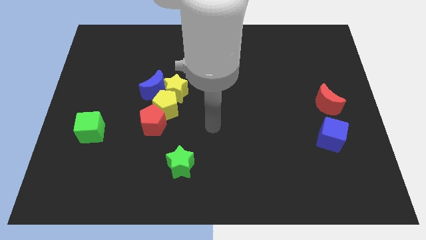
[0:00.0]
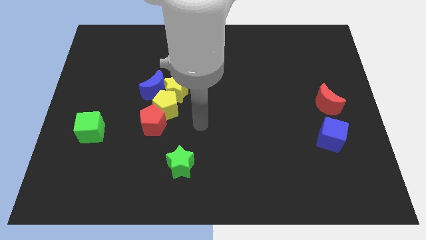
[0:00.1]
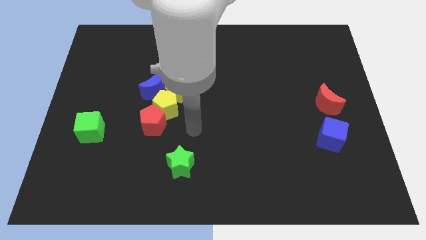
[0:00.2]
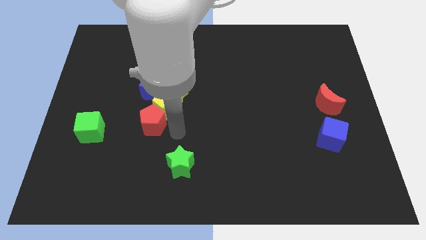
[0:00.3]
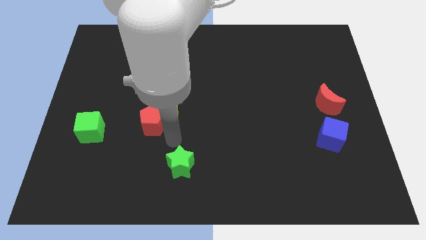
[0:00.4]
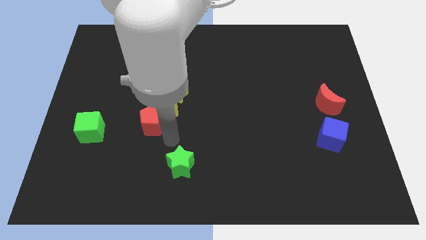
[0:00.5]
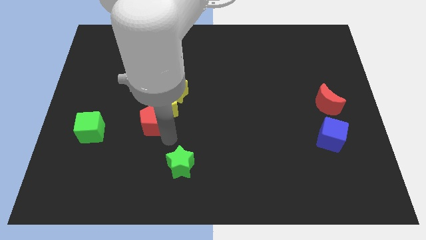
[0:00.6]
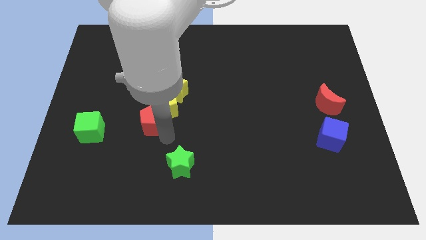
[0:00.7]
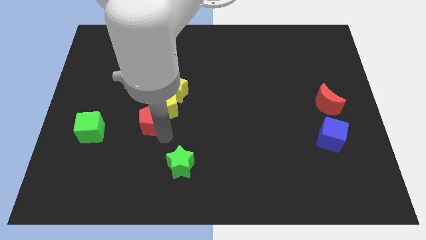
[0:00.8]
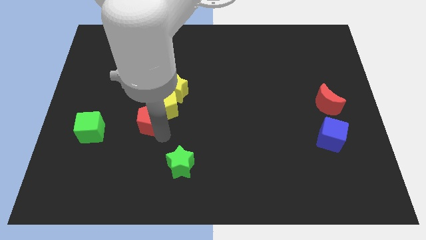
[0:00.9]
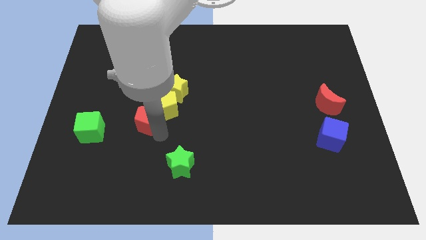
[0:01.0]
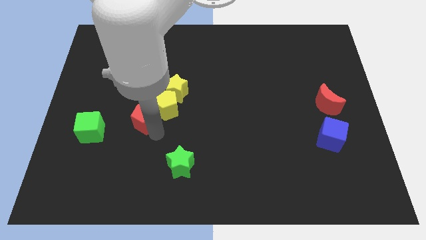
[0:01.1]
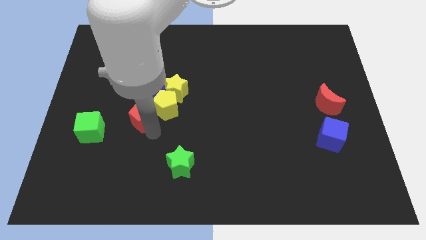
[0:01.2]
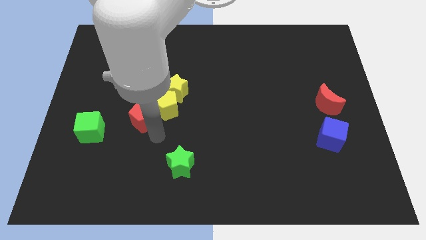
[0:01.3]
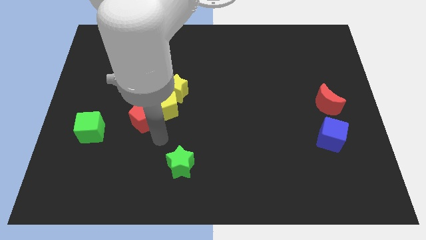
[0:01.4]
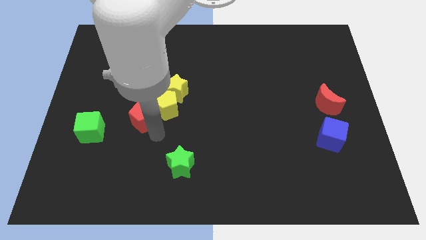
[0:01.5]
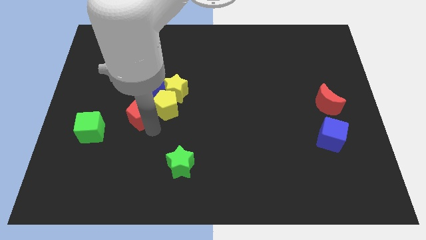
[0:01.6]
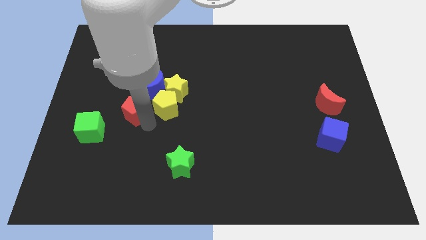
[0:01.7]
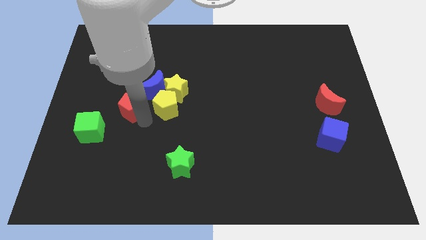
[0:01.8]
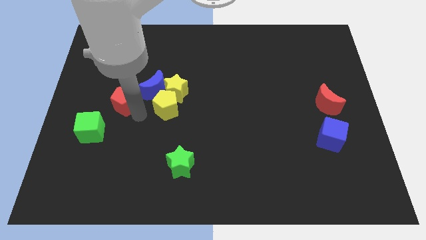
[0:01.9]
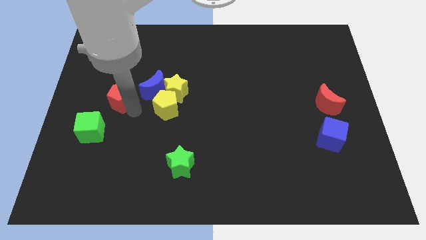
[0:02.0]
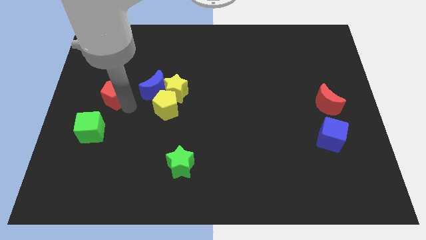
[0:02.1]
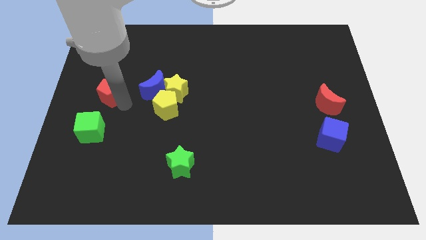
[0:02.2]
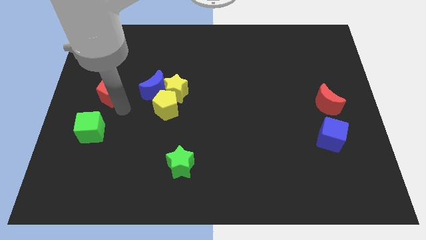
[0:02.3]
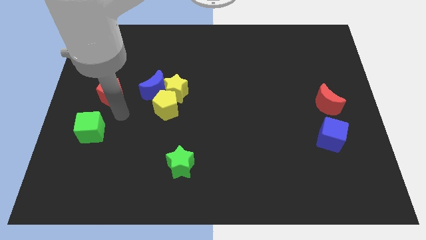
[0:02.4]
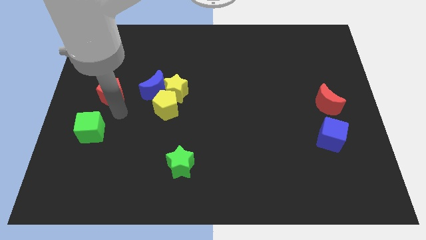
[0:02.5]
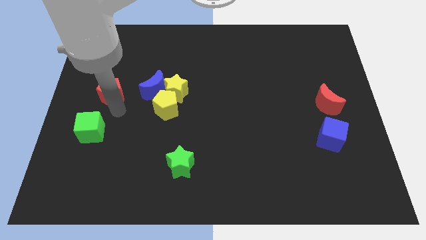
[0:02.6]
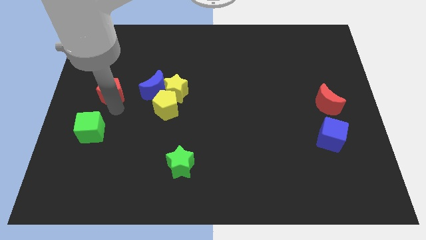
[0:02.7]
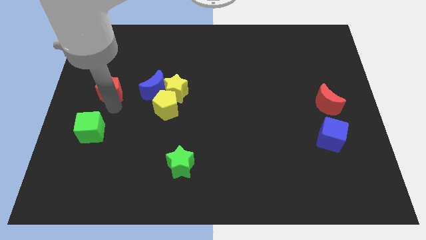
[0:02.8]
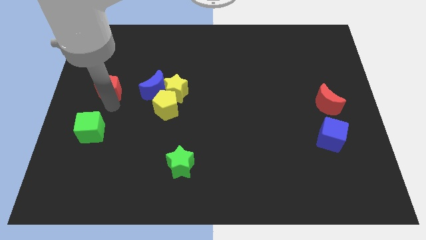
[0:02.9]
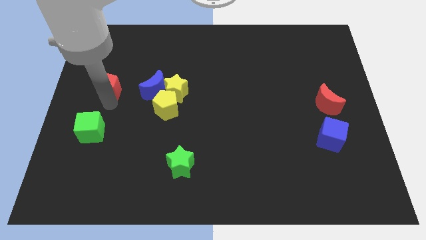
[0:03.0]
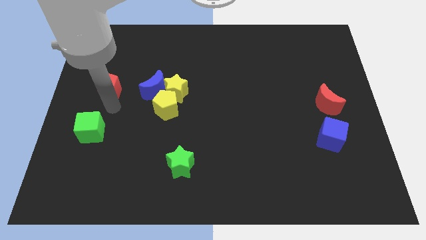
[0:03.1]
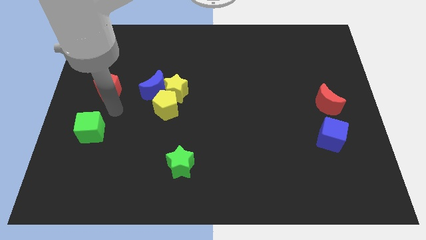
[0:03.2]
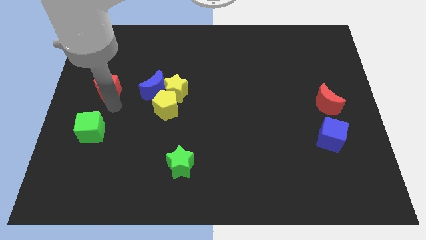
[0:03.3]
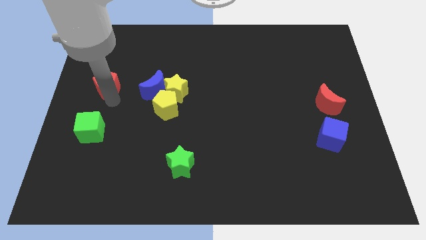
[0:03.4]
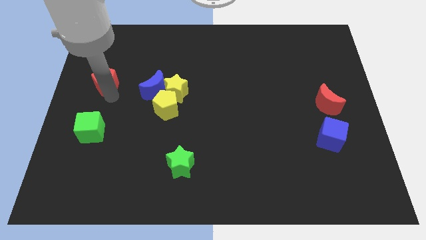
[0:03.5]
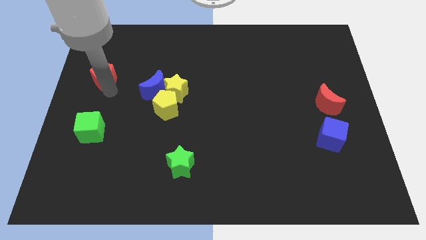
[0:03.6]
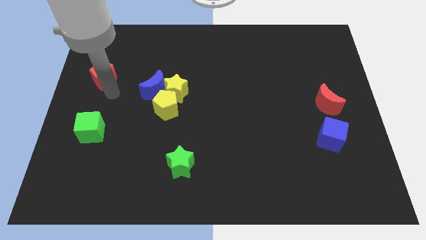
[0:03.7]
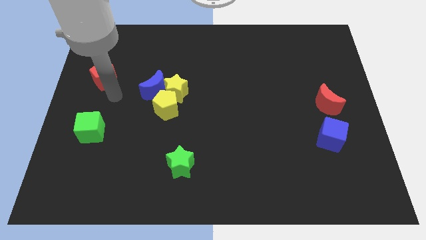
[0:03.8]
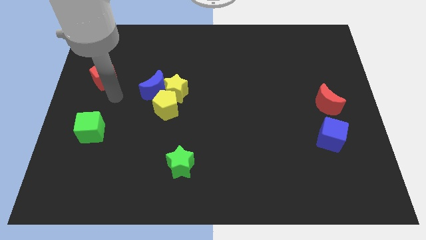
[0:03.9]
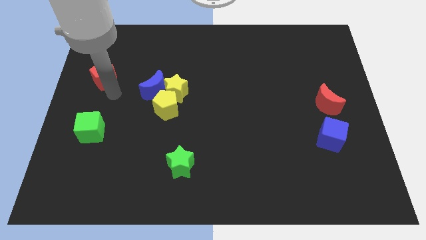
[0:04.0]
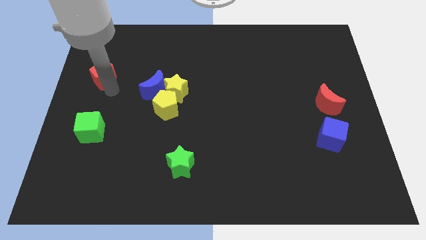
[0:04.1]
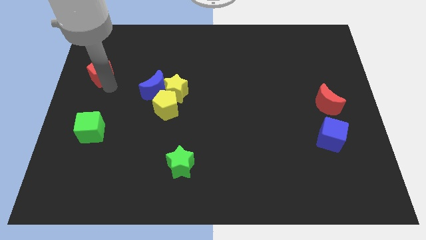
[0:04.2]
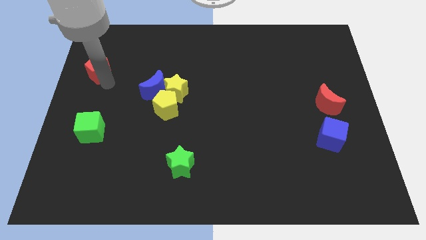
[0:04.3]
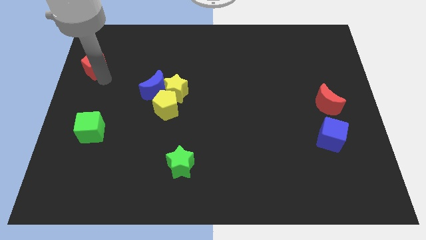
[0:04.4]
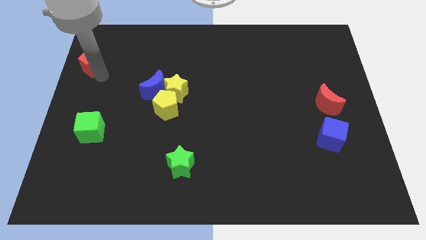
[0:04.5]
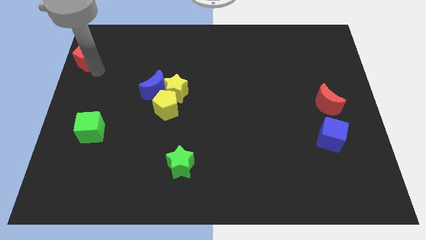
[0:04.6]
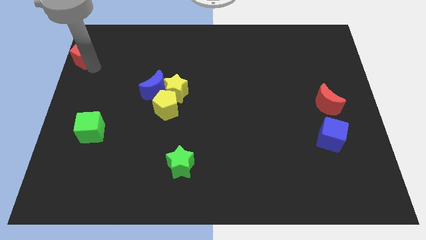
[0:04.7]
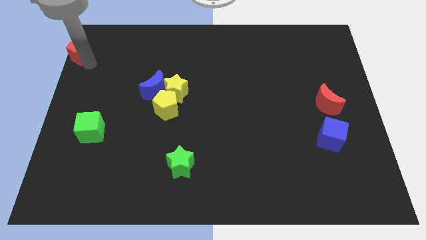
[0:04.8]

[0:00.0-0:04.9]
push the red pentagon to the top left corner

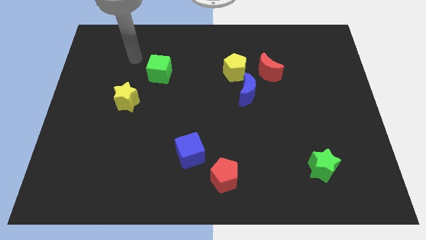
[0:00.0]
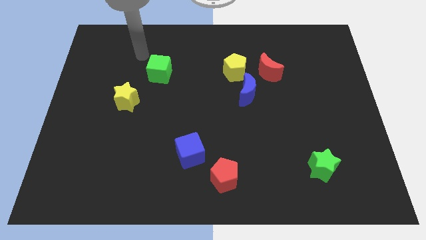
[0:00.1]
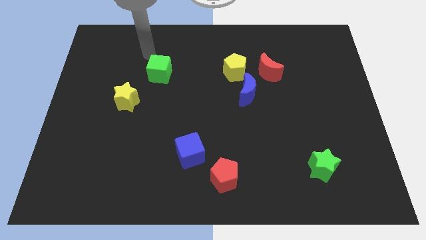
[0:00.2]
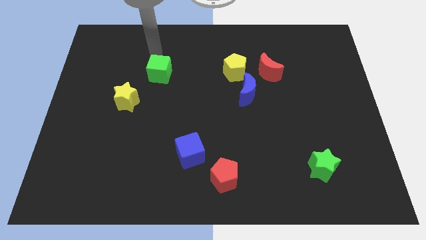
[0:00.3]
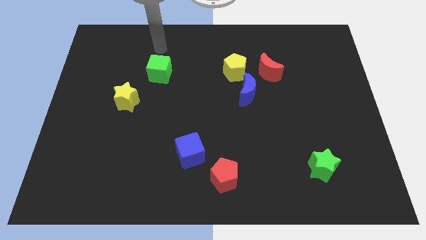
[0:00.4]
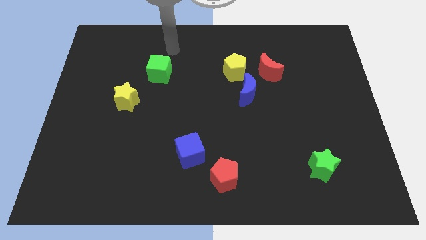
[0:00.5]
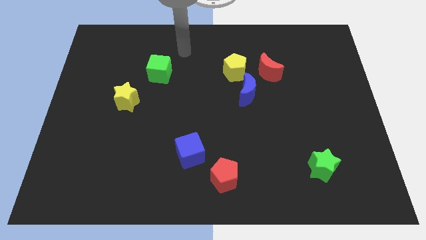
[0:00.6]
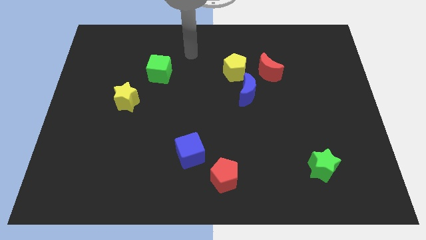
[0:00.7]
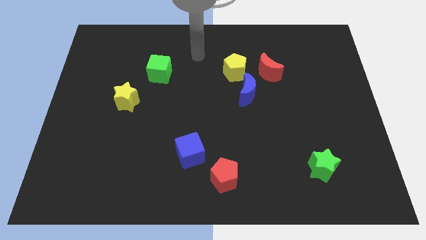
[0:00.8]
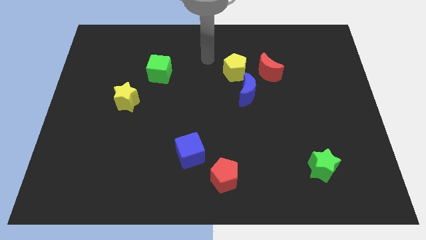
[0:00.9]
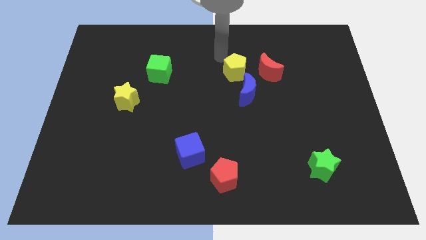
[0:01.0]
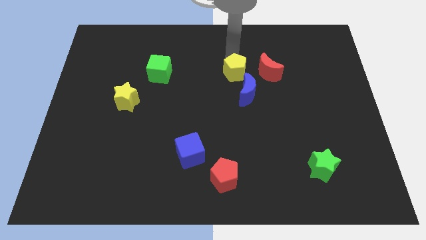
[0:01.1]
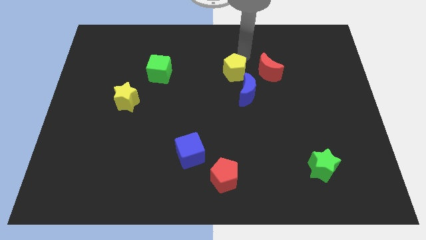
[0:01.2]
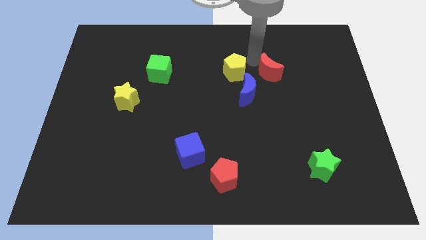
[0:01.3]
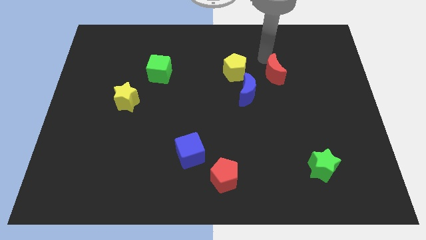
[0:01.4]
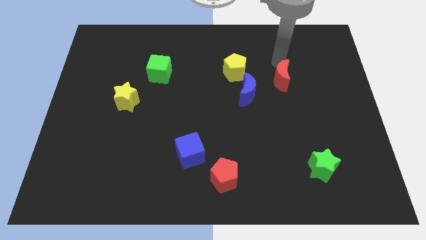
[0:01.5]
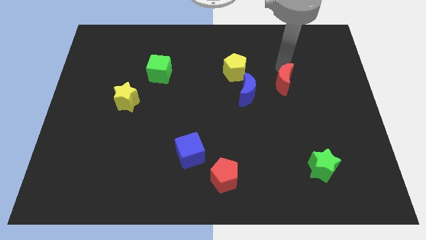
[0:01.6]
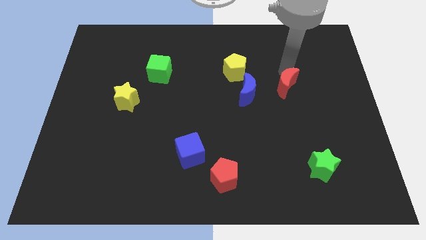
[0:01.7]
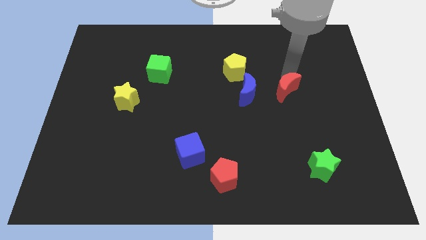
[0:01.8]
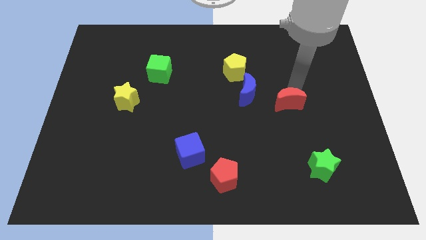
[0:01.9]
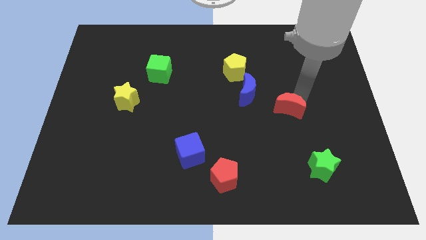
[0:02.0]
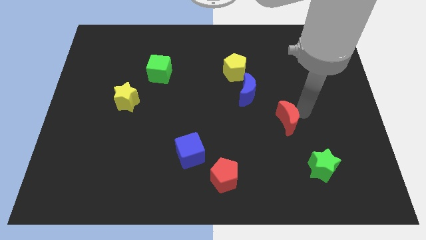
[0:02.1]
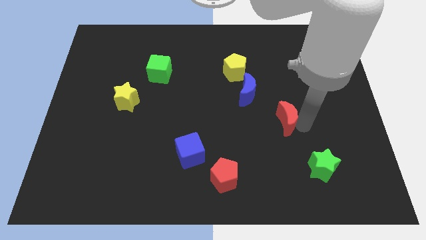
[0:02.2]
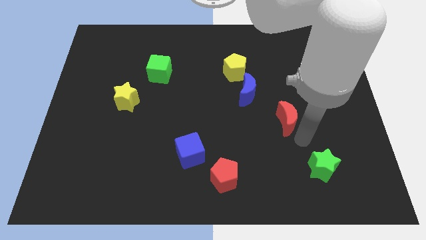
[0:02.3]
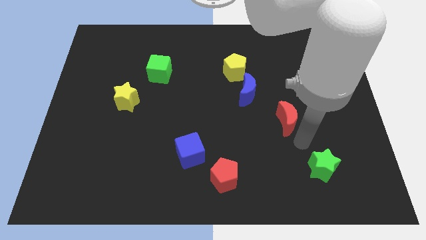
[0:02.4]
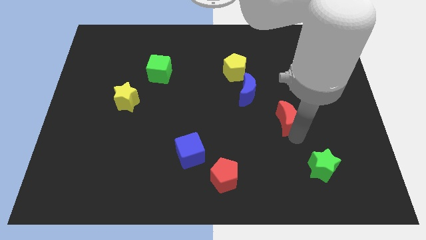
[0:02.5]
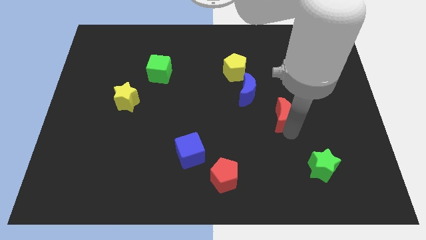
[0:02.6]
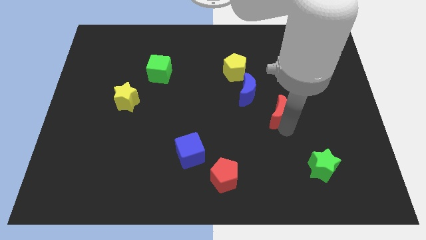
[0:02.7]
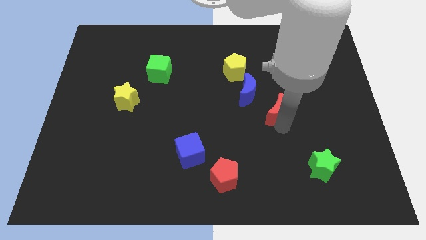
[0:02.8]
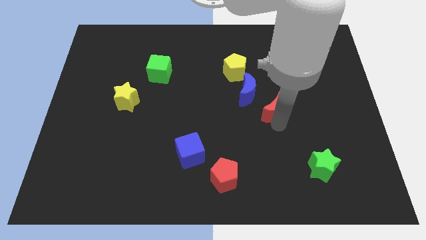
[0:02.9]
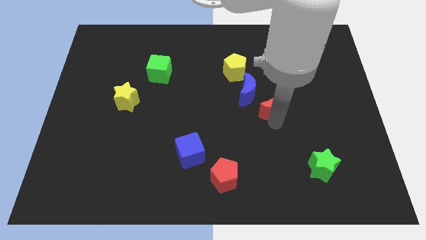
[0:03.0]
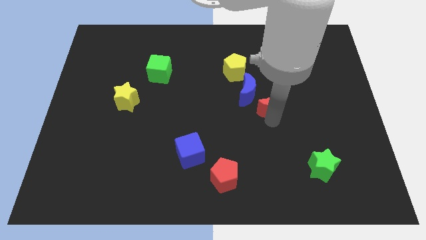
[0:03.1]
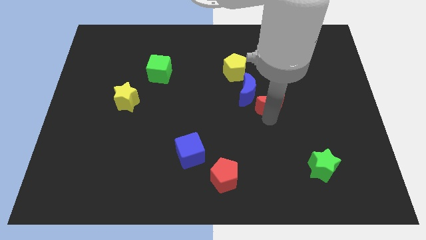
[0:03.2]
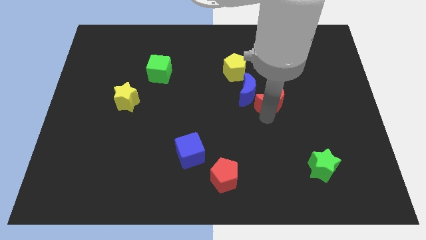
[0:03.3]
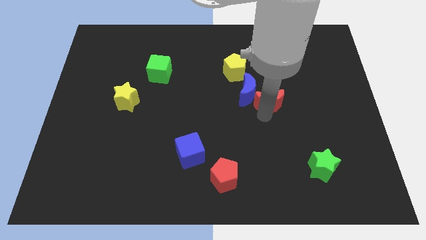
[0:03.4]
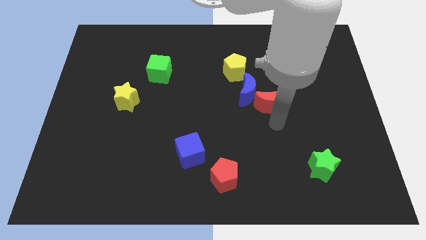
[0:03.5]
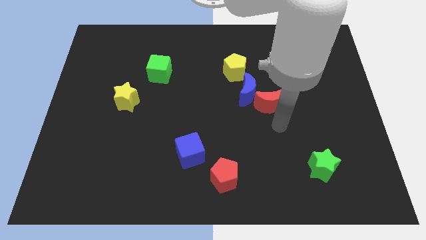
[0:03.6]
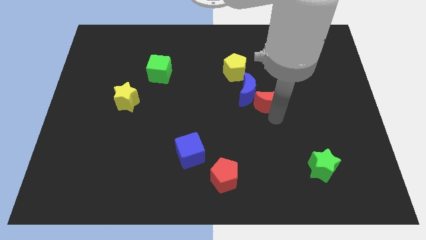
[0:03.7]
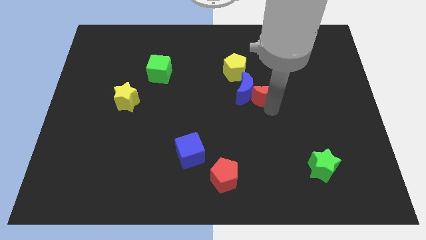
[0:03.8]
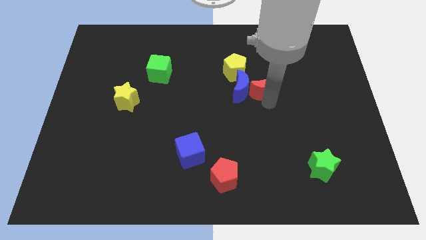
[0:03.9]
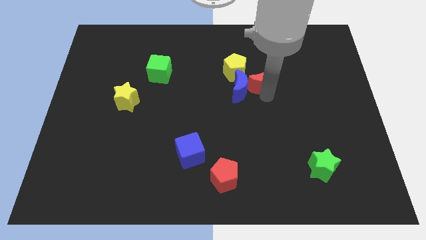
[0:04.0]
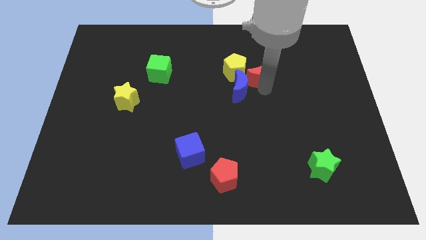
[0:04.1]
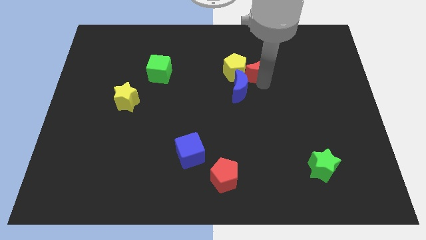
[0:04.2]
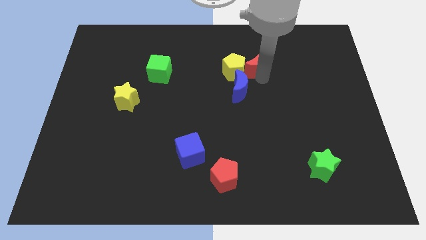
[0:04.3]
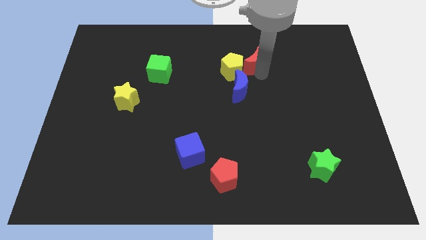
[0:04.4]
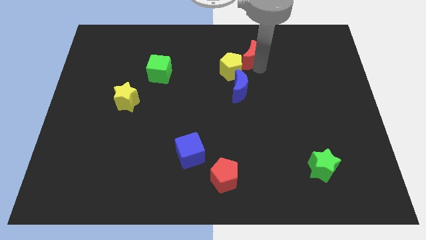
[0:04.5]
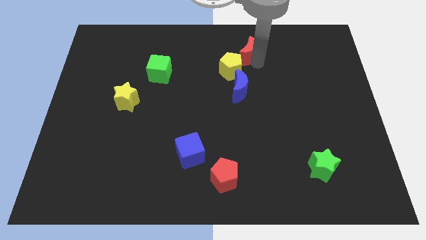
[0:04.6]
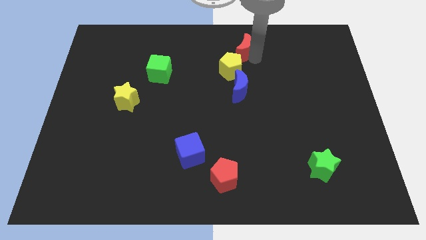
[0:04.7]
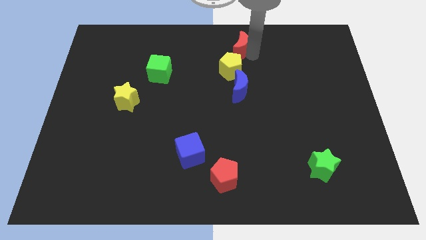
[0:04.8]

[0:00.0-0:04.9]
put the red moon to the top side
